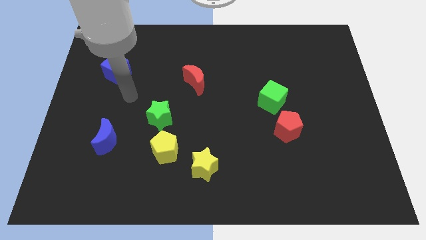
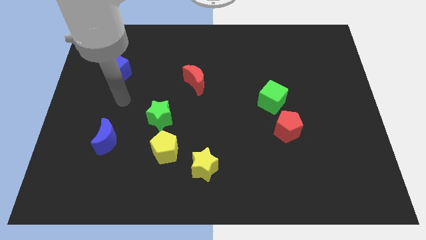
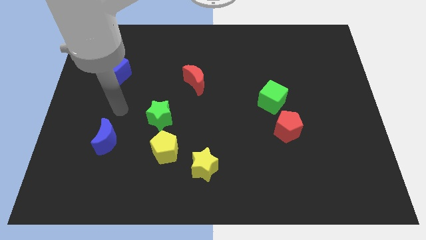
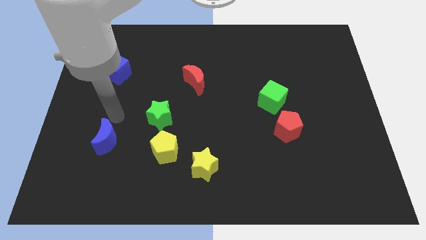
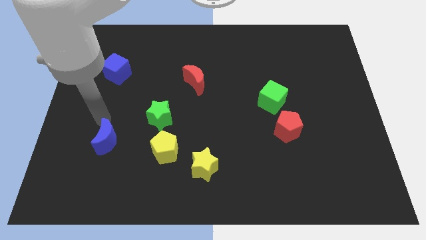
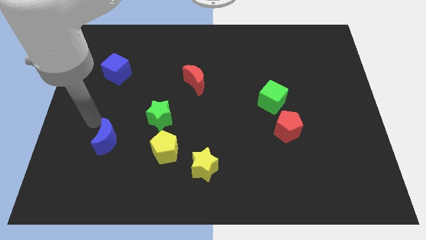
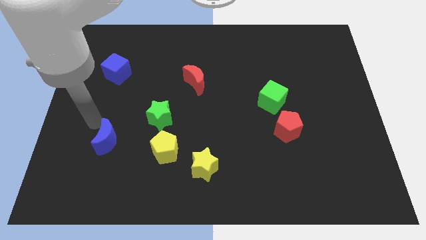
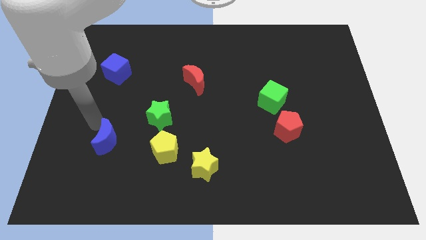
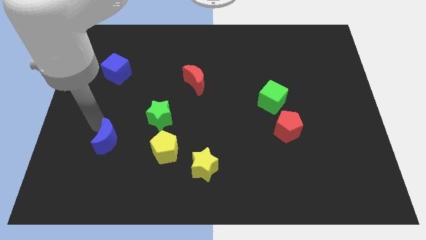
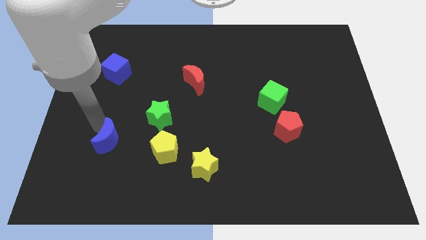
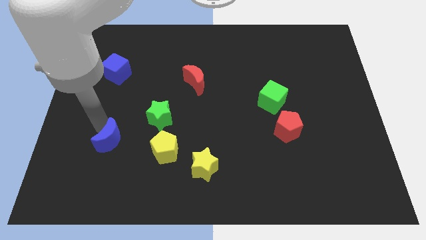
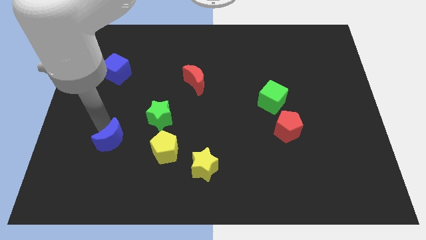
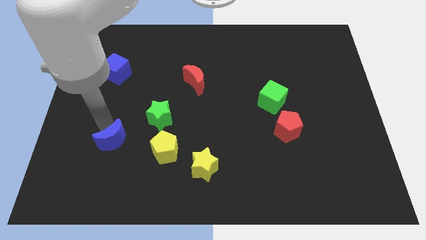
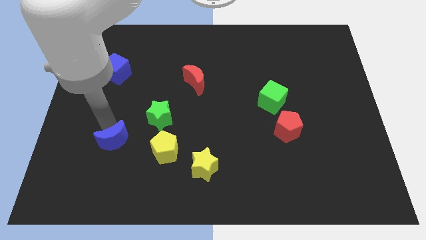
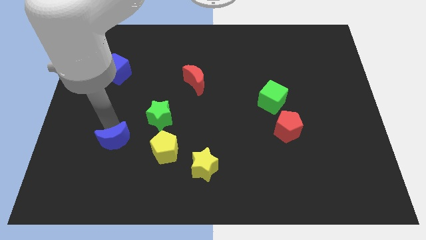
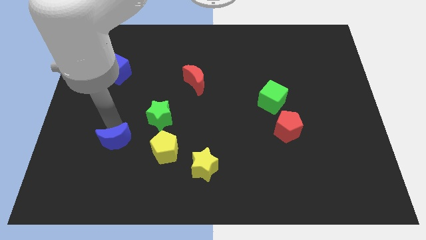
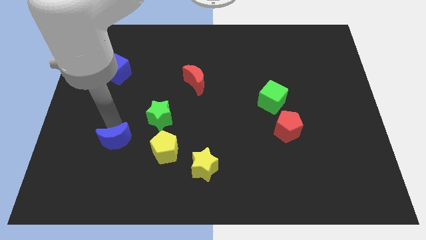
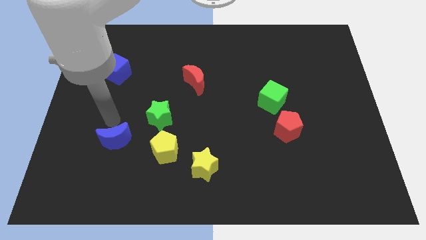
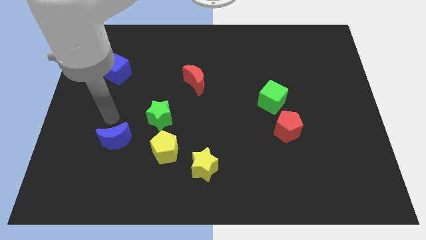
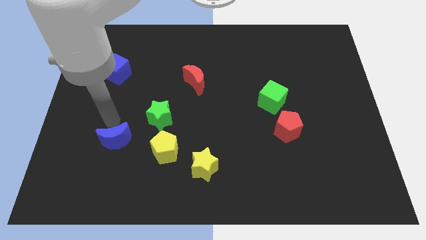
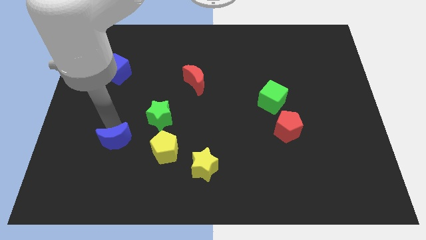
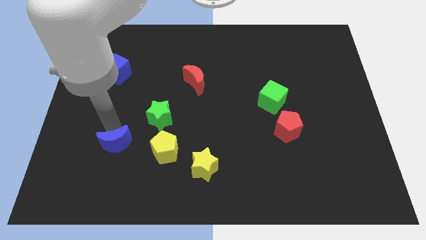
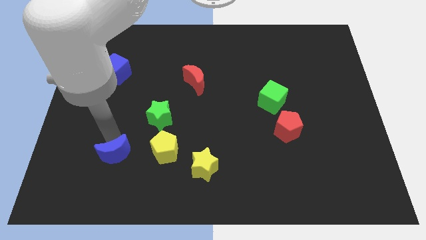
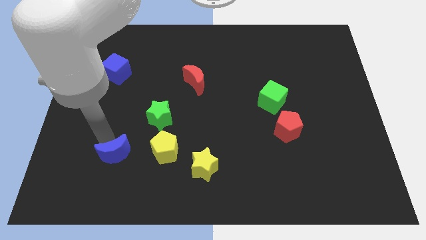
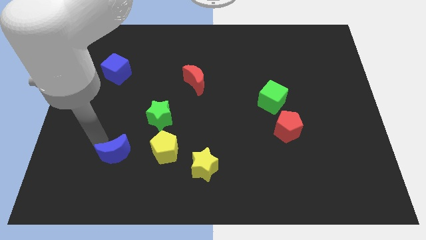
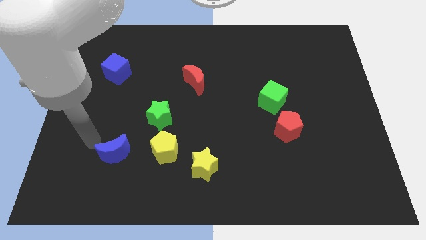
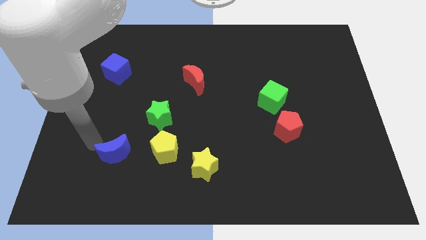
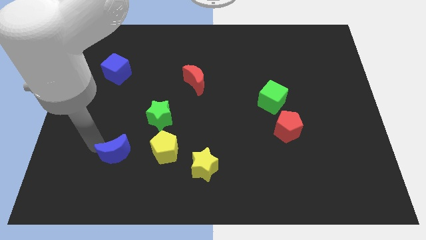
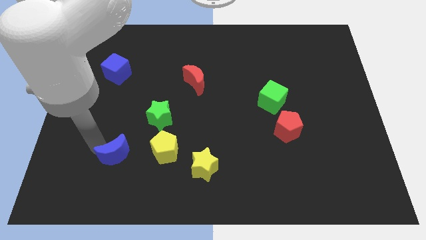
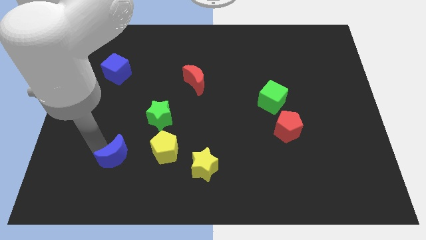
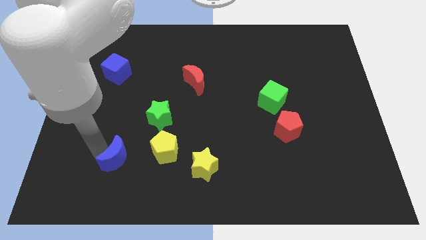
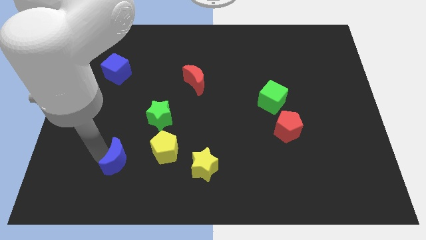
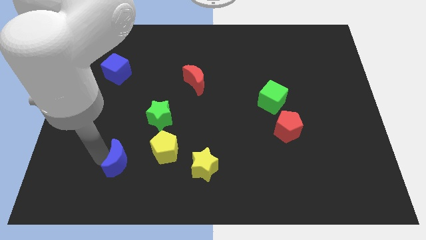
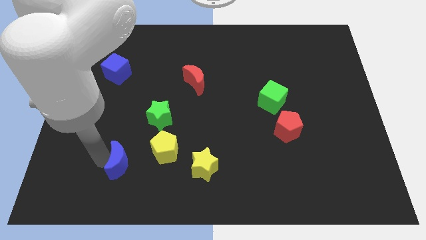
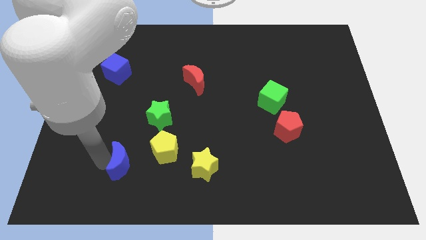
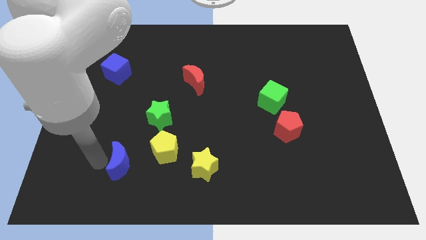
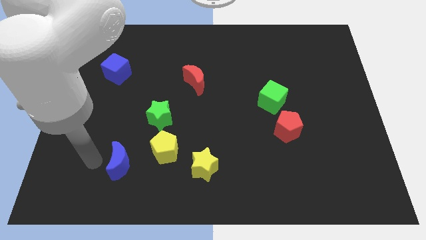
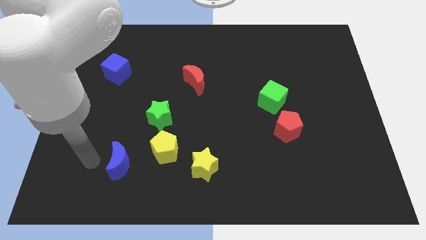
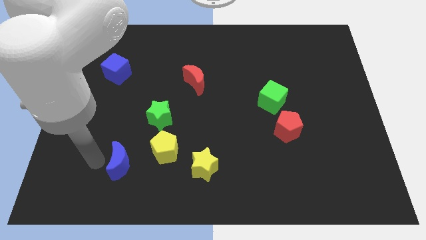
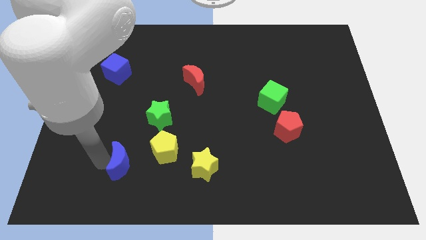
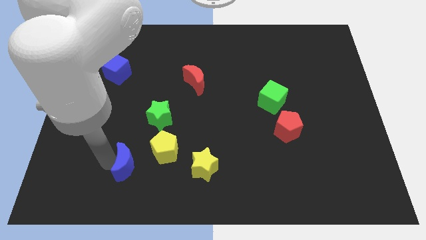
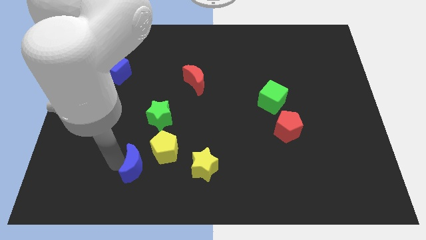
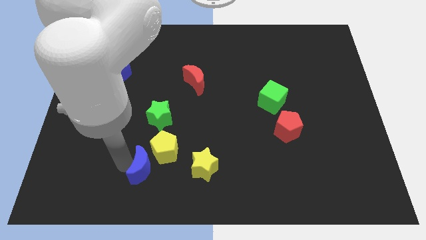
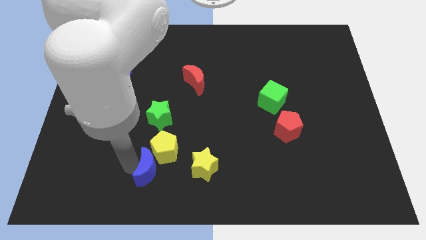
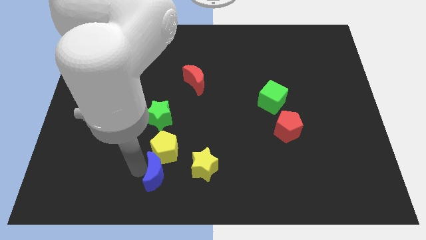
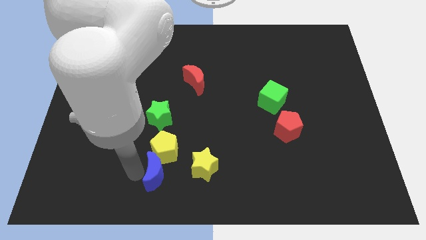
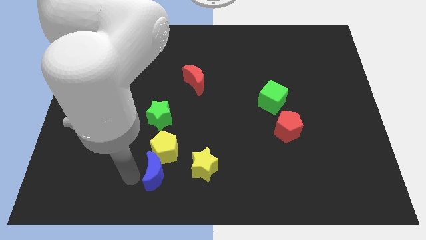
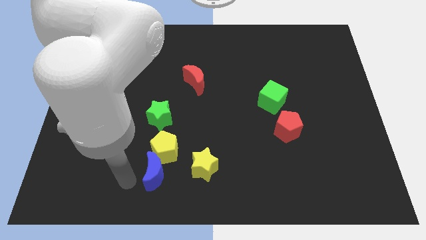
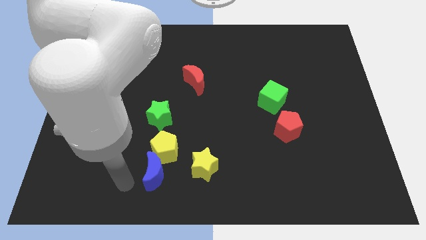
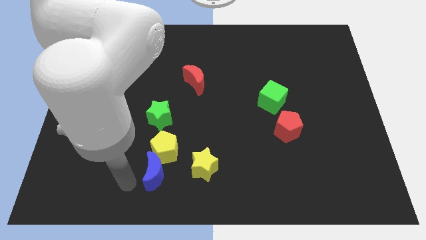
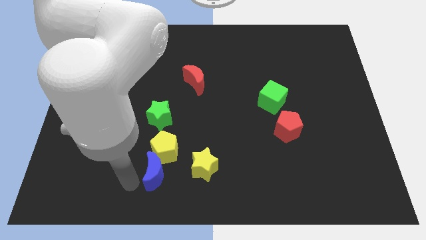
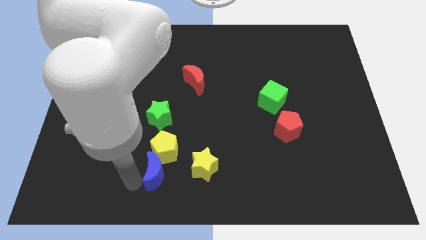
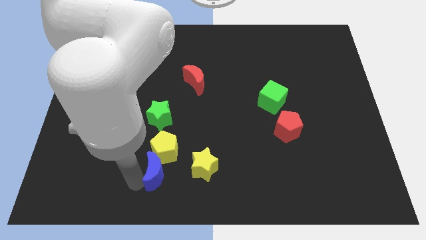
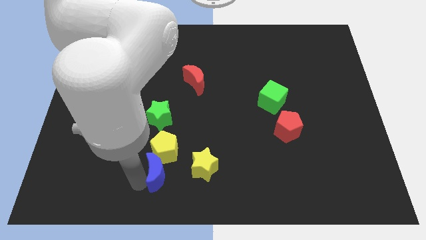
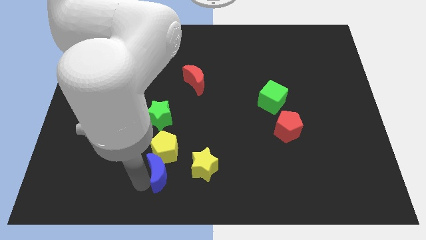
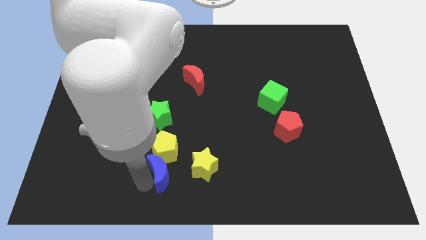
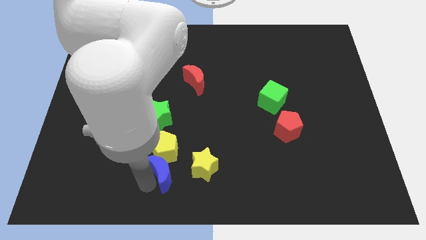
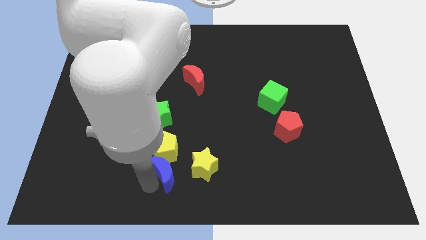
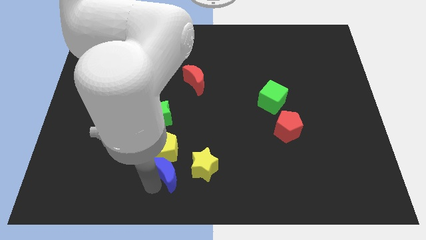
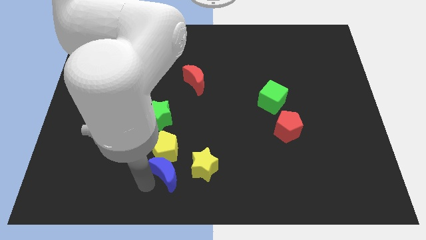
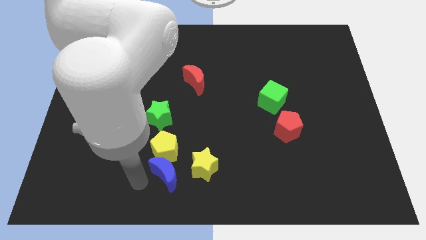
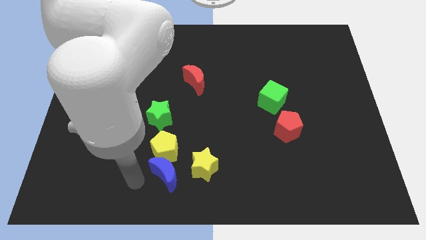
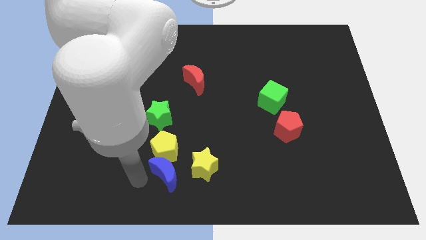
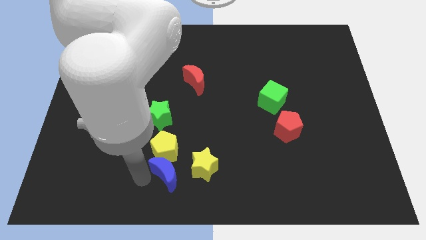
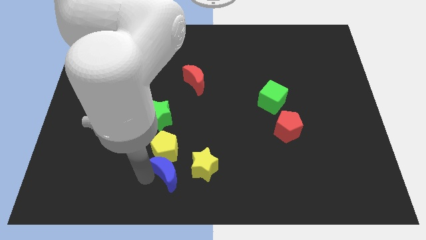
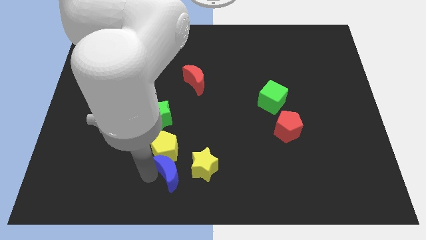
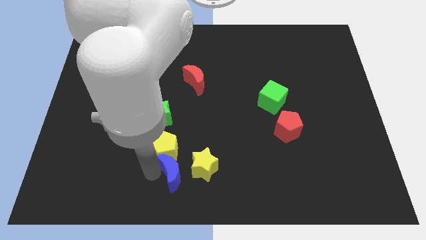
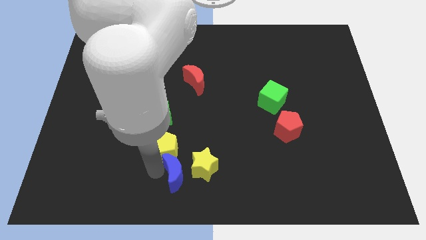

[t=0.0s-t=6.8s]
move the blue moon to the yellow star
